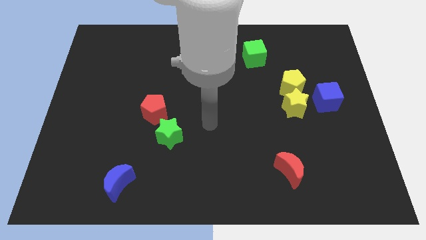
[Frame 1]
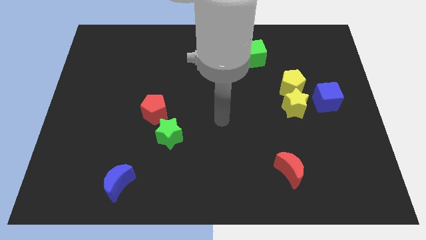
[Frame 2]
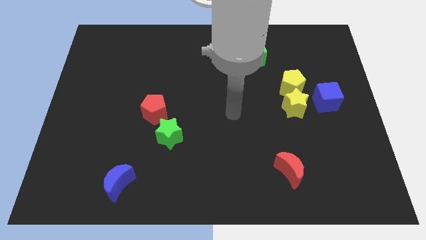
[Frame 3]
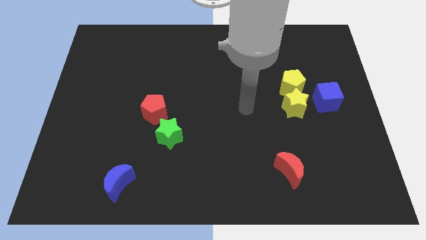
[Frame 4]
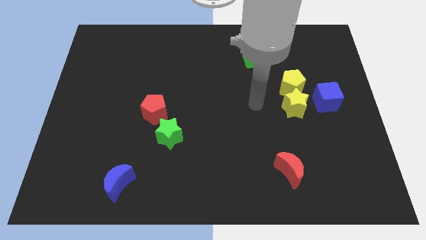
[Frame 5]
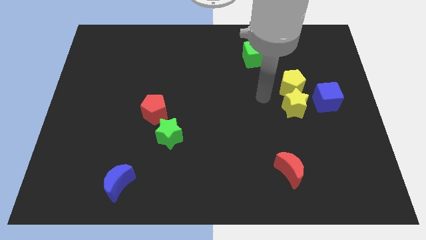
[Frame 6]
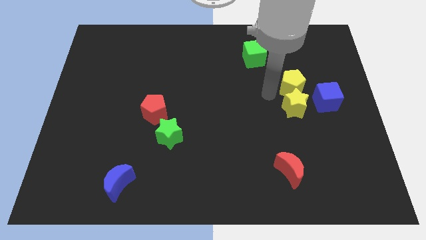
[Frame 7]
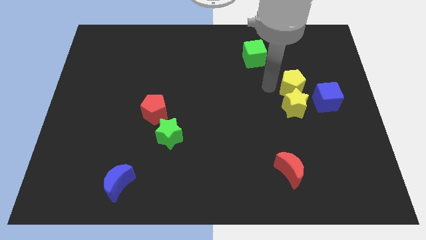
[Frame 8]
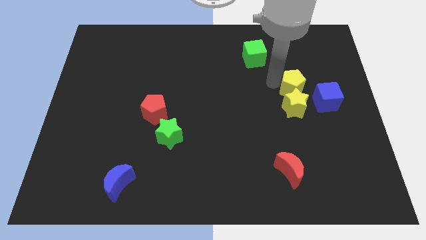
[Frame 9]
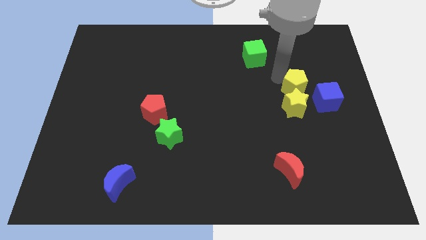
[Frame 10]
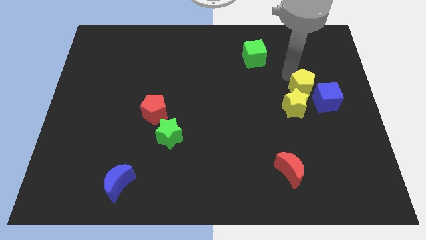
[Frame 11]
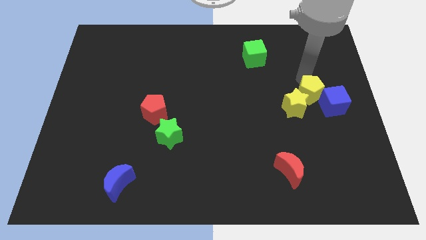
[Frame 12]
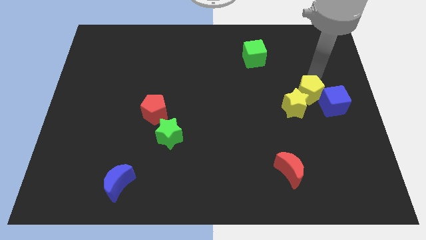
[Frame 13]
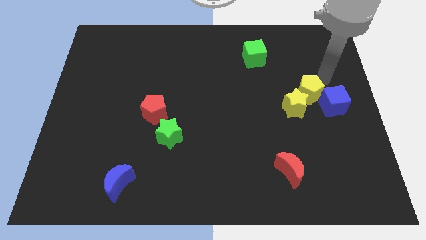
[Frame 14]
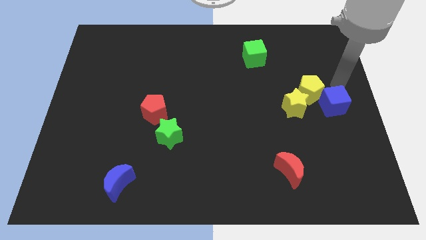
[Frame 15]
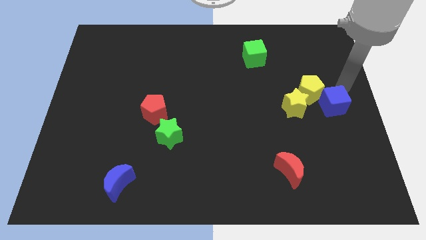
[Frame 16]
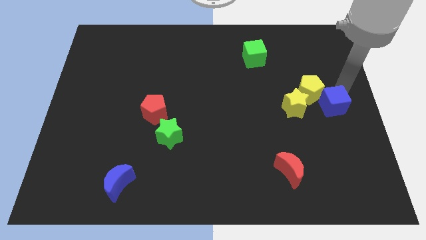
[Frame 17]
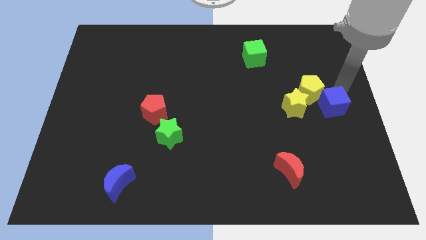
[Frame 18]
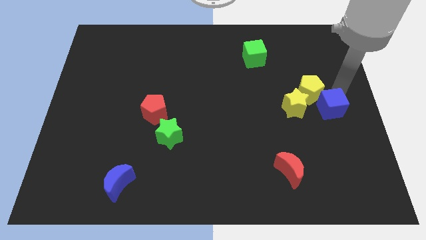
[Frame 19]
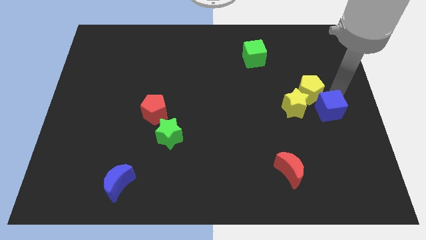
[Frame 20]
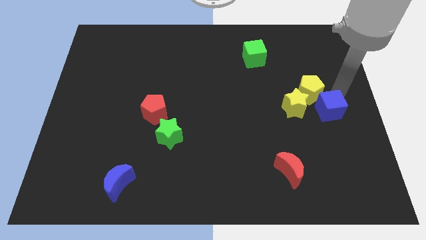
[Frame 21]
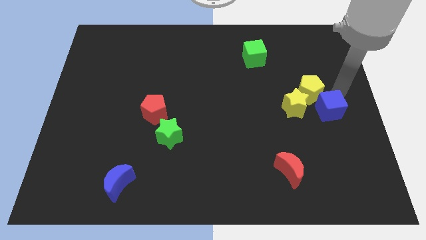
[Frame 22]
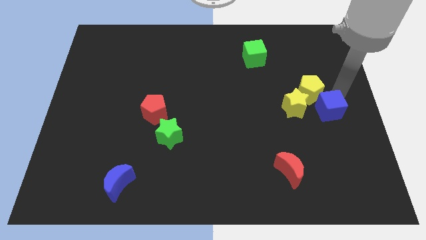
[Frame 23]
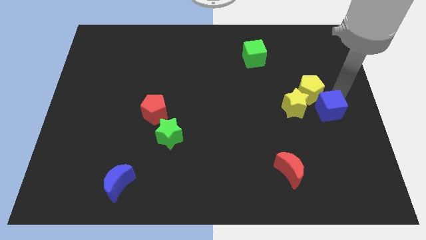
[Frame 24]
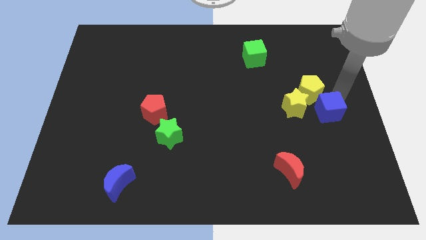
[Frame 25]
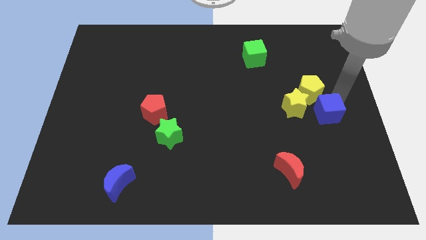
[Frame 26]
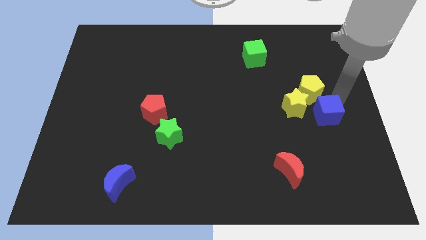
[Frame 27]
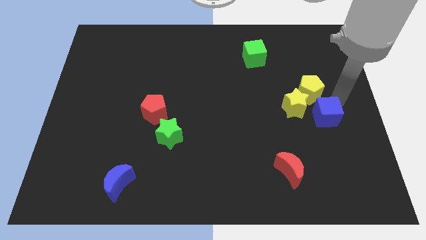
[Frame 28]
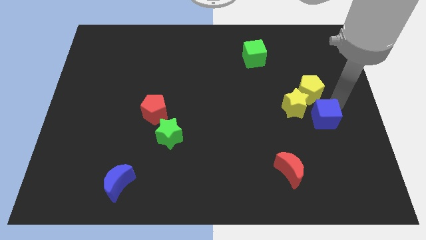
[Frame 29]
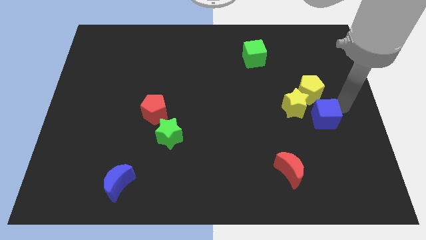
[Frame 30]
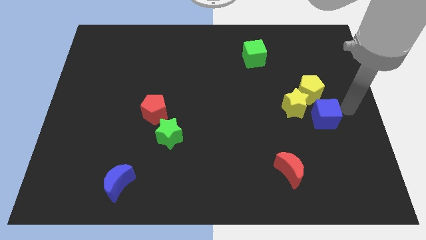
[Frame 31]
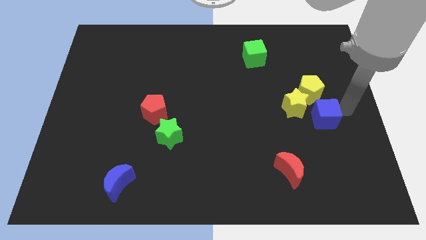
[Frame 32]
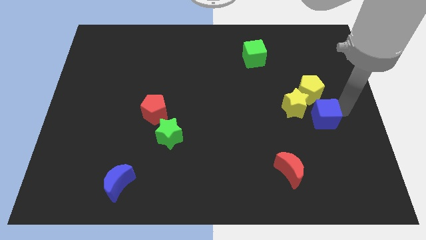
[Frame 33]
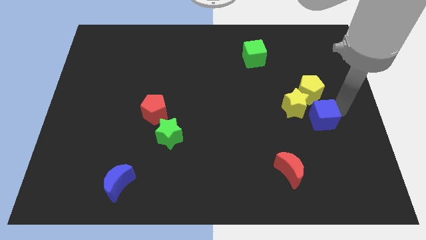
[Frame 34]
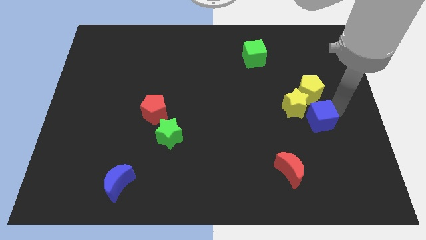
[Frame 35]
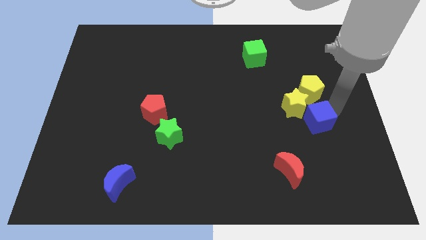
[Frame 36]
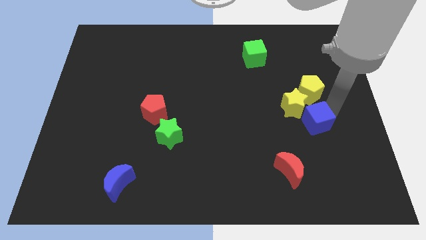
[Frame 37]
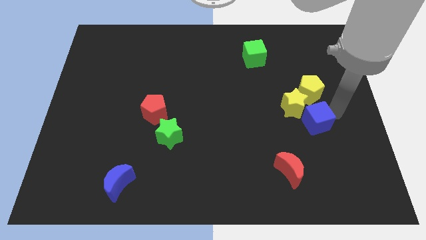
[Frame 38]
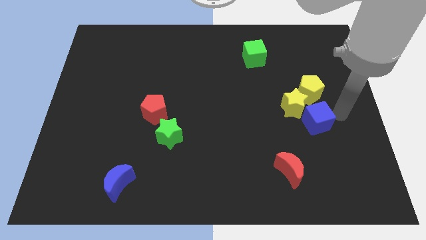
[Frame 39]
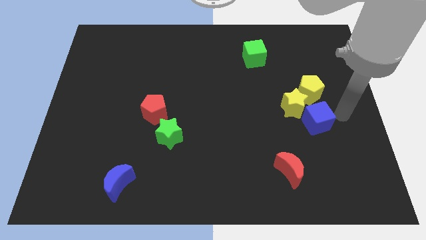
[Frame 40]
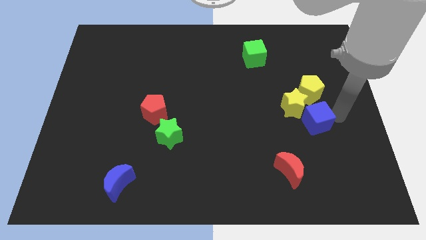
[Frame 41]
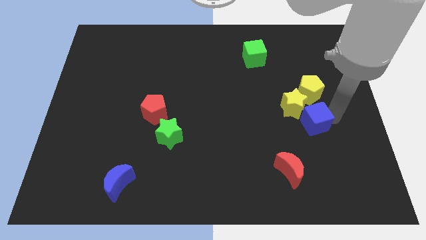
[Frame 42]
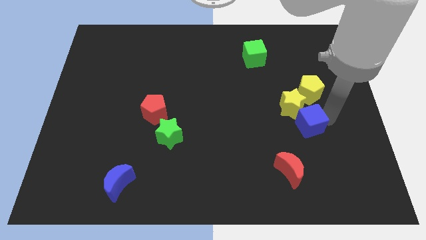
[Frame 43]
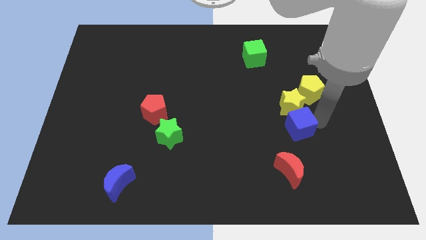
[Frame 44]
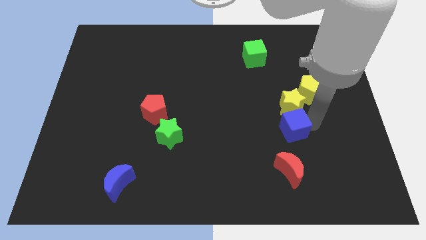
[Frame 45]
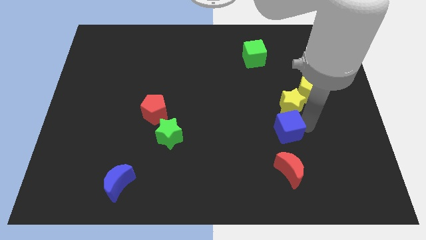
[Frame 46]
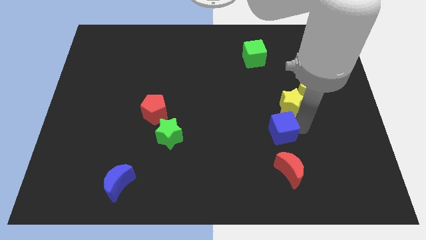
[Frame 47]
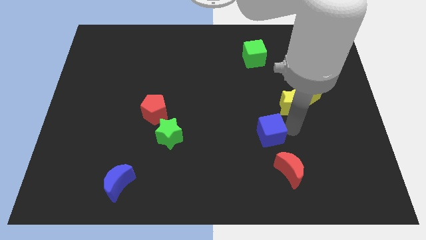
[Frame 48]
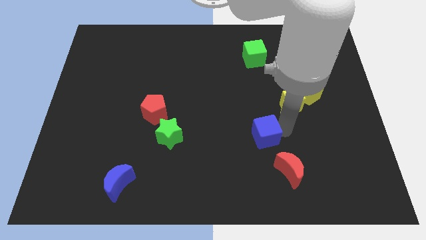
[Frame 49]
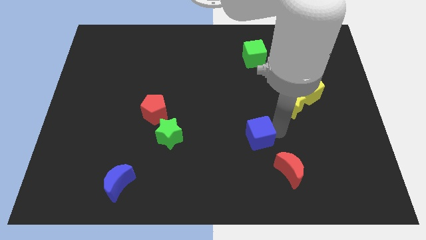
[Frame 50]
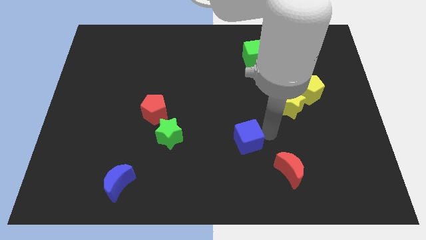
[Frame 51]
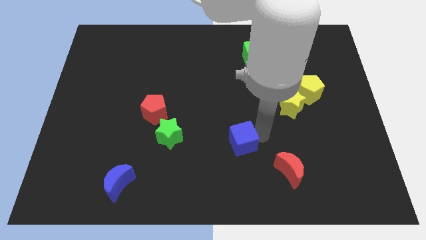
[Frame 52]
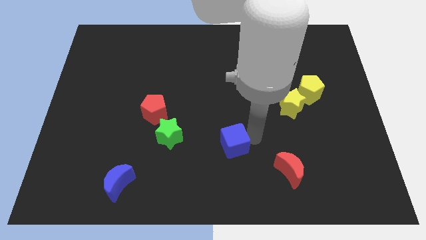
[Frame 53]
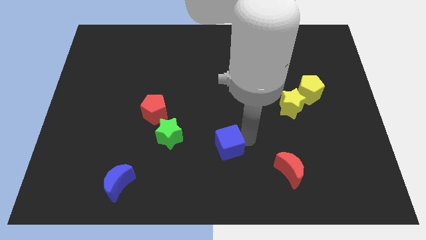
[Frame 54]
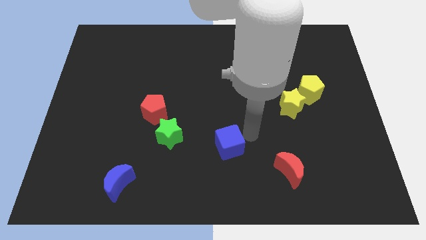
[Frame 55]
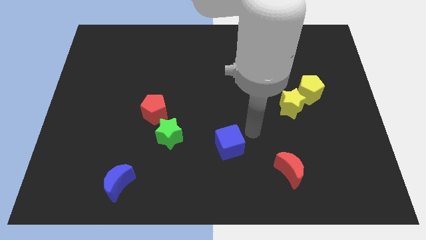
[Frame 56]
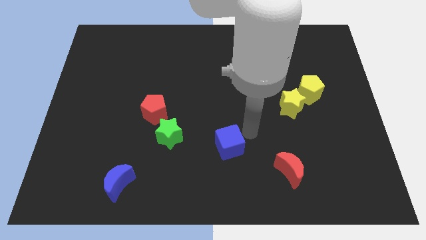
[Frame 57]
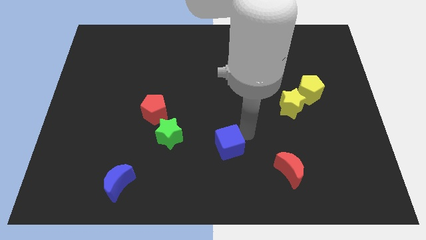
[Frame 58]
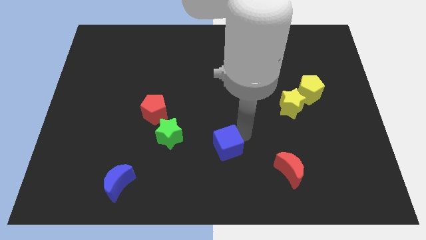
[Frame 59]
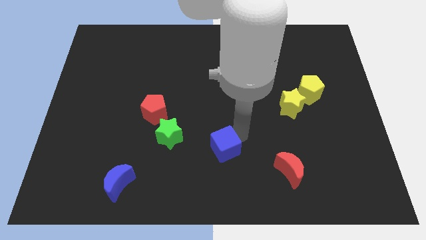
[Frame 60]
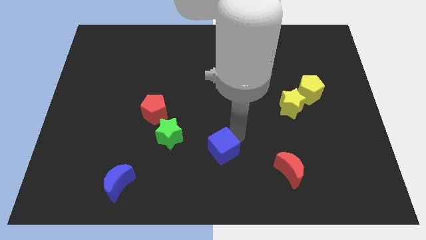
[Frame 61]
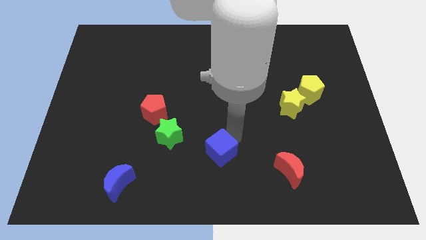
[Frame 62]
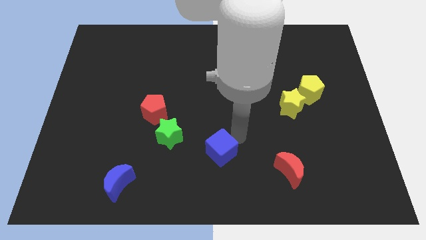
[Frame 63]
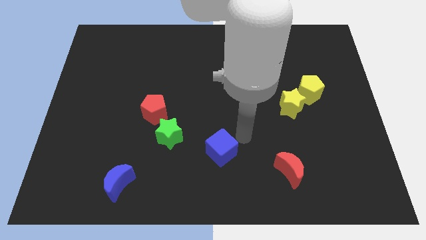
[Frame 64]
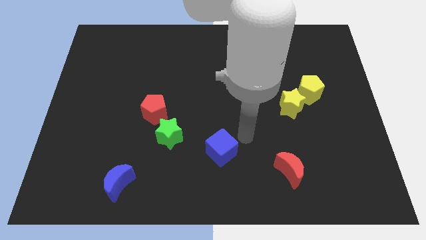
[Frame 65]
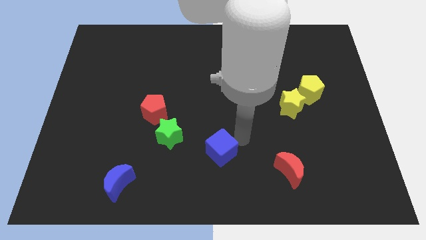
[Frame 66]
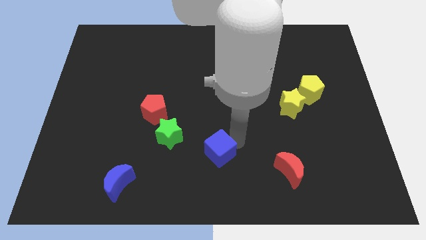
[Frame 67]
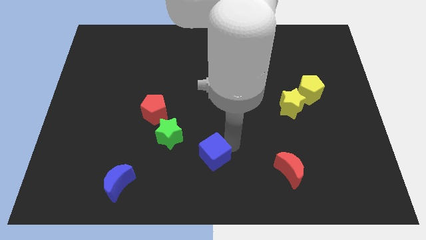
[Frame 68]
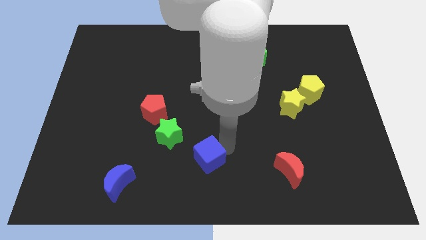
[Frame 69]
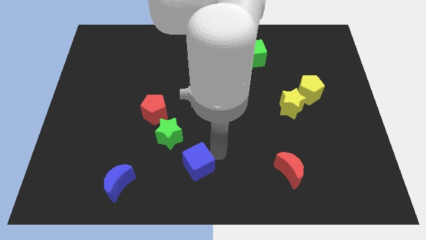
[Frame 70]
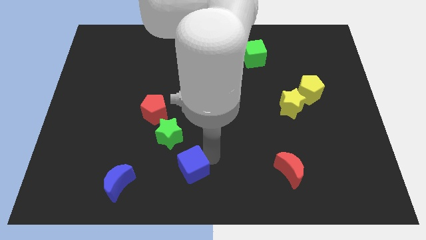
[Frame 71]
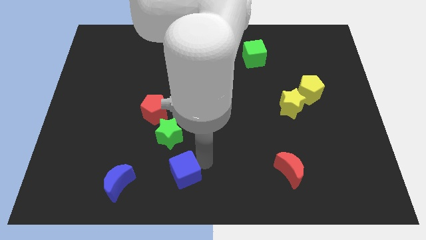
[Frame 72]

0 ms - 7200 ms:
move the blue cube to the bottom side of the green star
